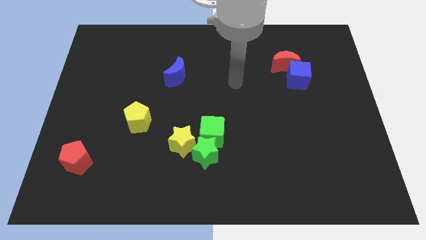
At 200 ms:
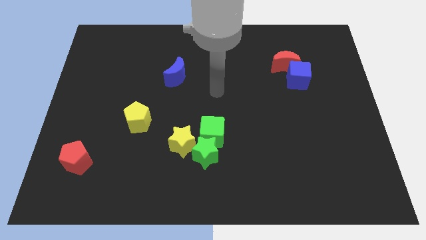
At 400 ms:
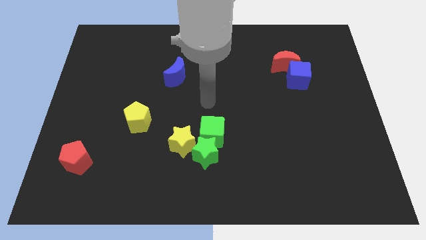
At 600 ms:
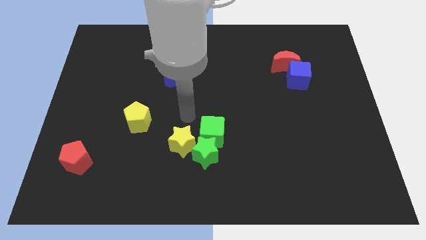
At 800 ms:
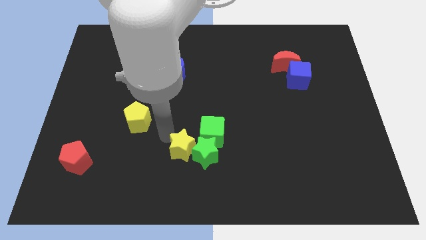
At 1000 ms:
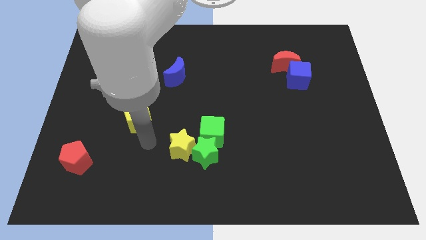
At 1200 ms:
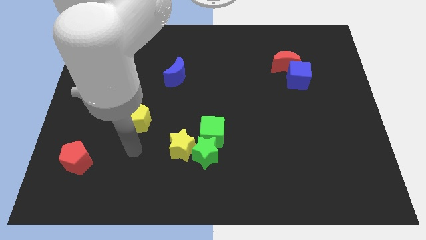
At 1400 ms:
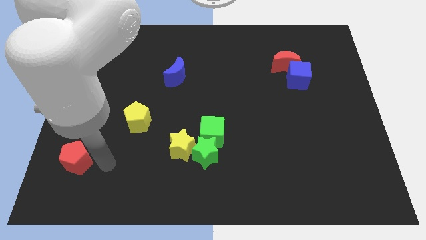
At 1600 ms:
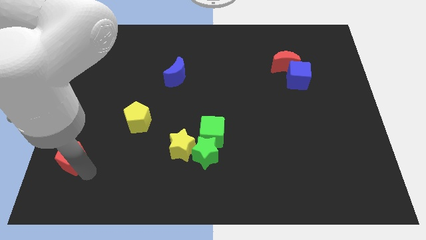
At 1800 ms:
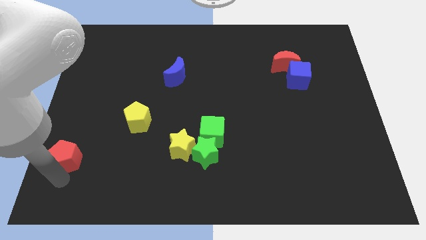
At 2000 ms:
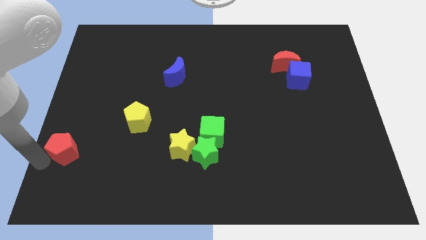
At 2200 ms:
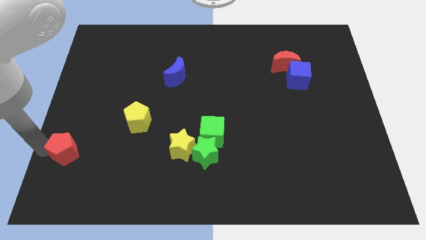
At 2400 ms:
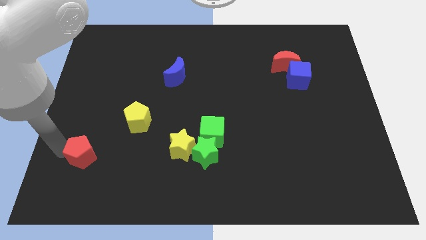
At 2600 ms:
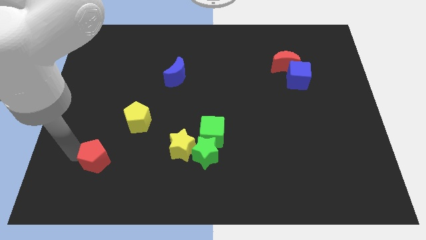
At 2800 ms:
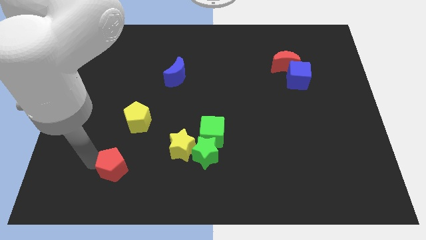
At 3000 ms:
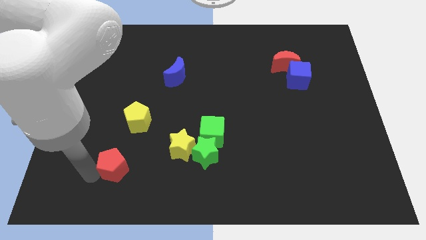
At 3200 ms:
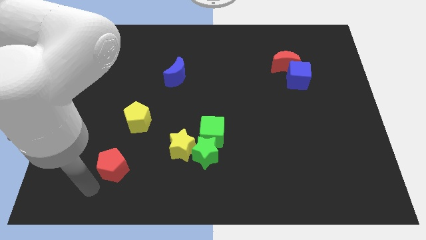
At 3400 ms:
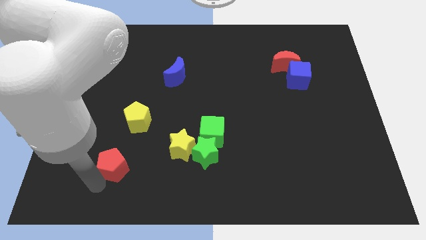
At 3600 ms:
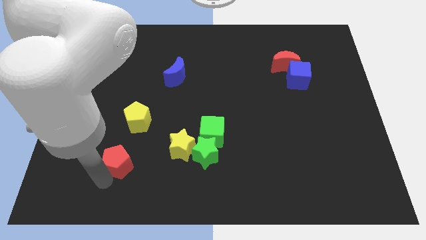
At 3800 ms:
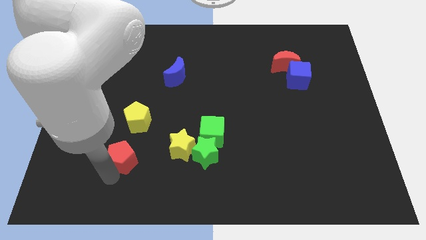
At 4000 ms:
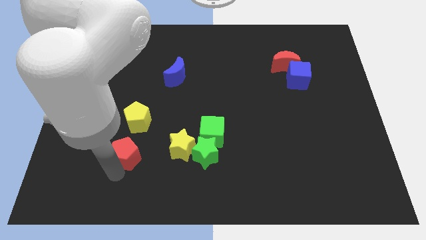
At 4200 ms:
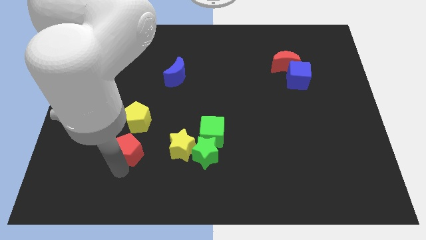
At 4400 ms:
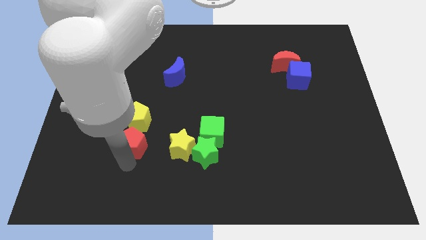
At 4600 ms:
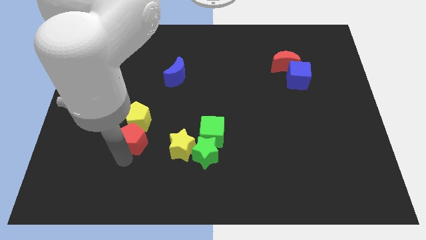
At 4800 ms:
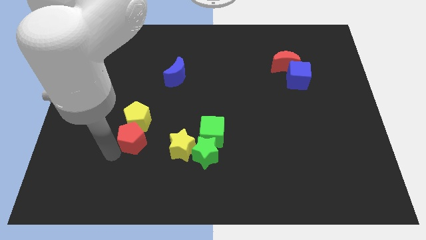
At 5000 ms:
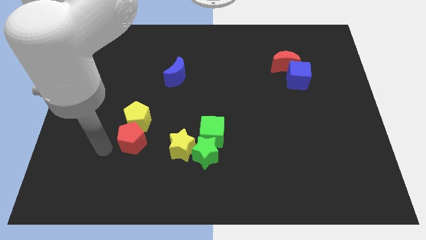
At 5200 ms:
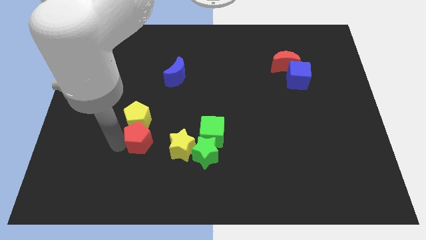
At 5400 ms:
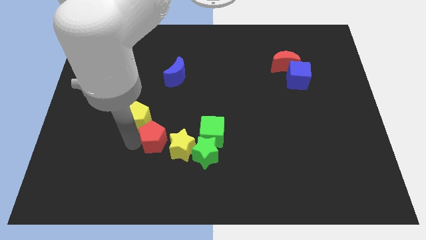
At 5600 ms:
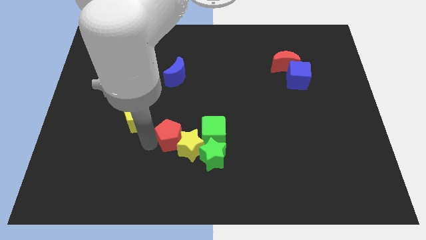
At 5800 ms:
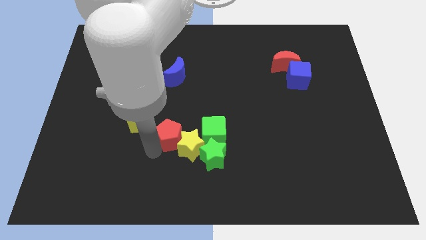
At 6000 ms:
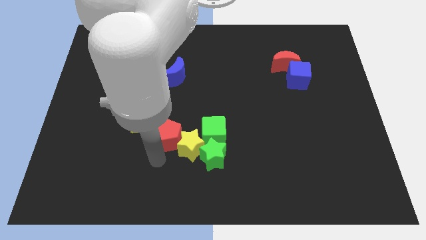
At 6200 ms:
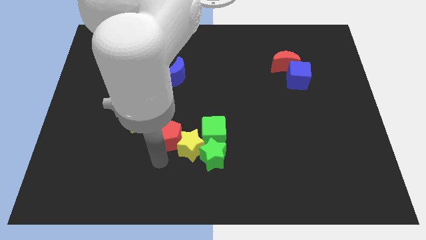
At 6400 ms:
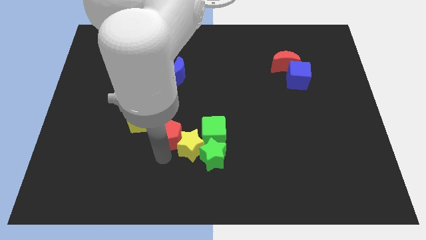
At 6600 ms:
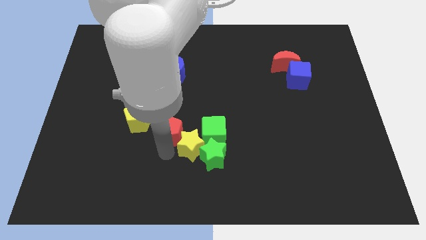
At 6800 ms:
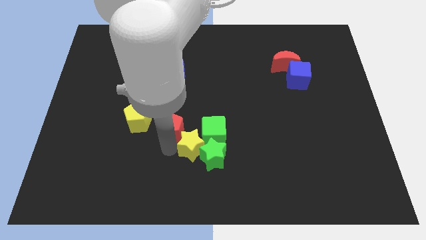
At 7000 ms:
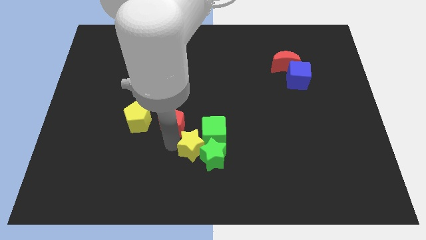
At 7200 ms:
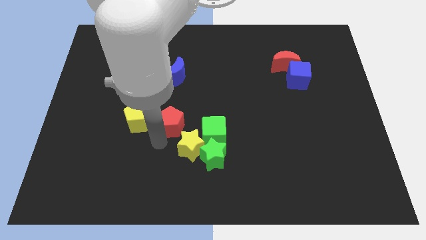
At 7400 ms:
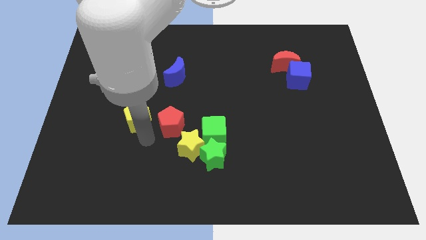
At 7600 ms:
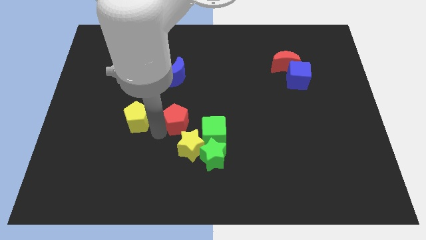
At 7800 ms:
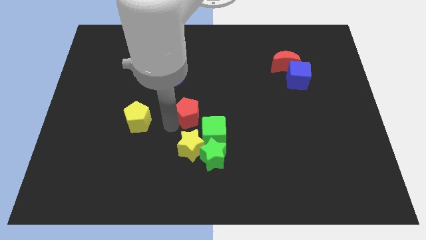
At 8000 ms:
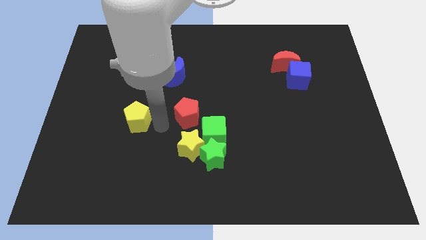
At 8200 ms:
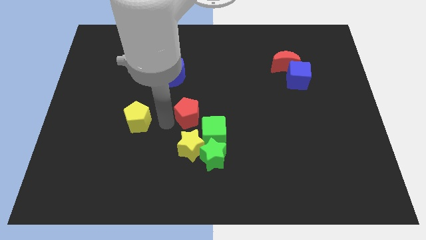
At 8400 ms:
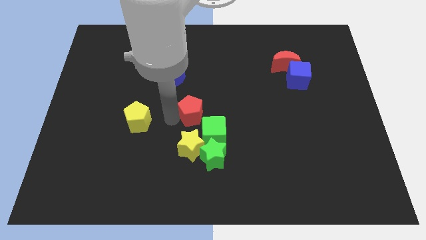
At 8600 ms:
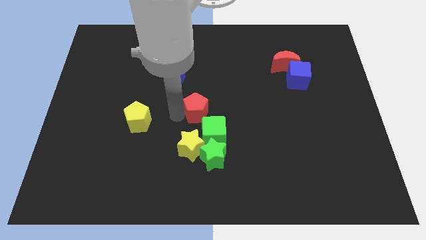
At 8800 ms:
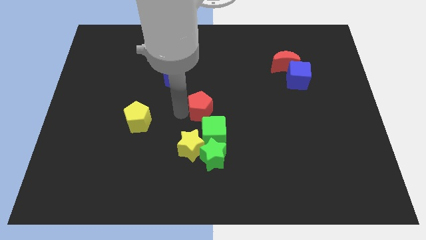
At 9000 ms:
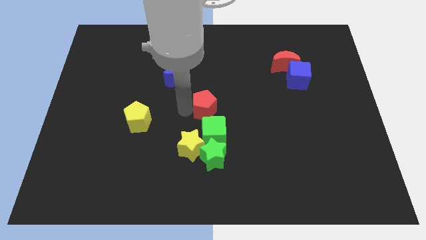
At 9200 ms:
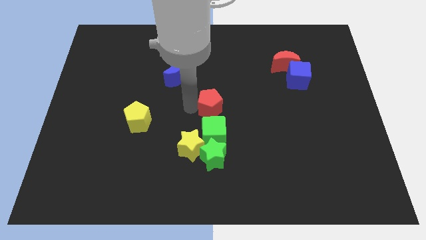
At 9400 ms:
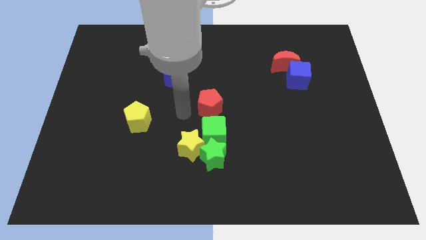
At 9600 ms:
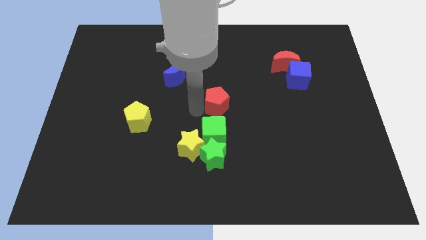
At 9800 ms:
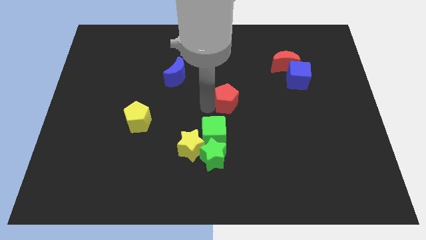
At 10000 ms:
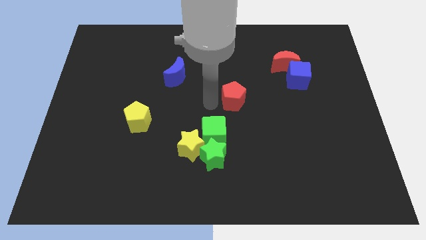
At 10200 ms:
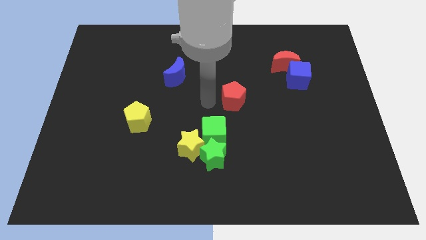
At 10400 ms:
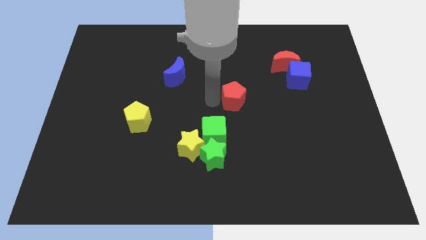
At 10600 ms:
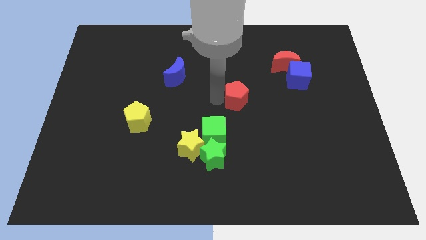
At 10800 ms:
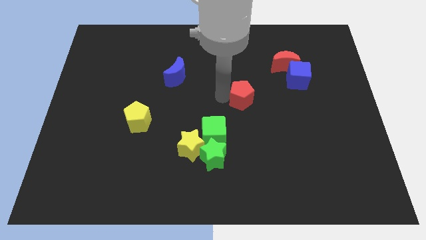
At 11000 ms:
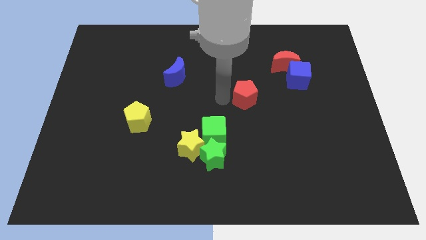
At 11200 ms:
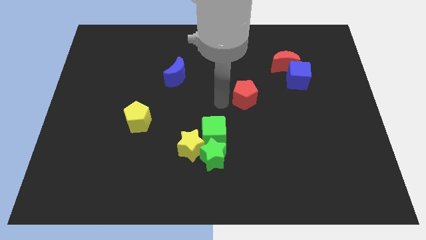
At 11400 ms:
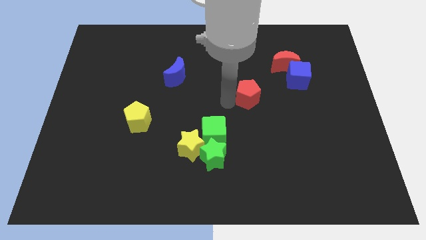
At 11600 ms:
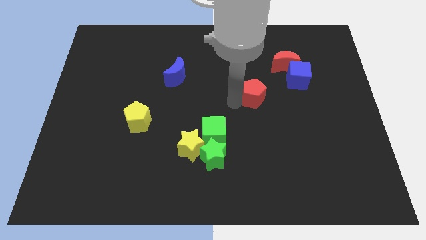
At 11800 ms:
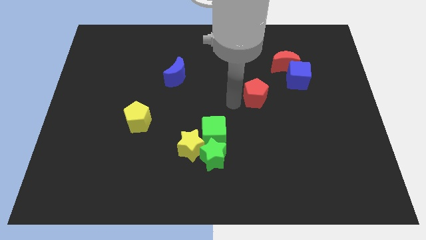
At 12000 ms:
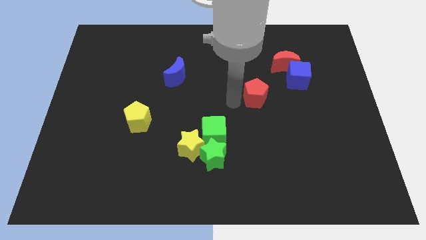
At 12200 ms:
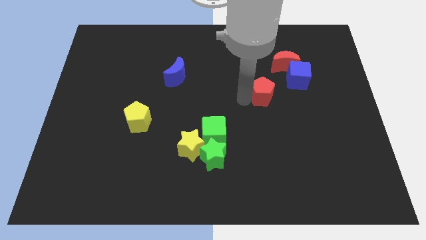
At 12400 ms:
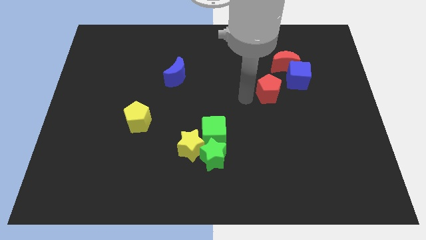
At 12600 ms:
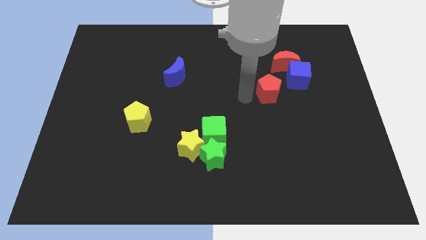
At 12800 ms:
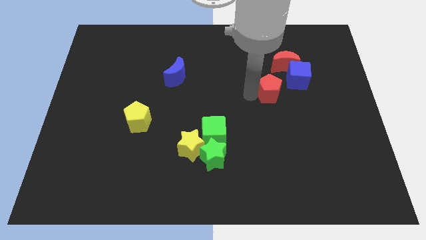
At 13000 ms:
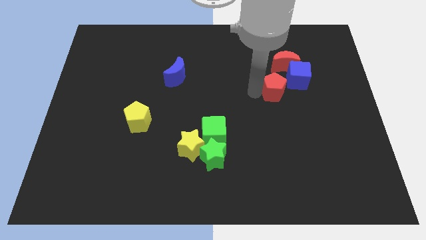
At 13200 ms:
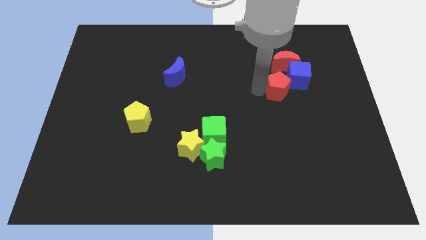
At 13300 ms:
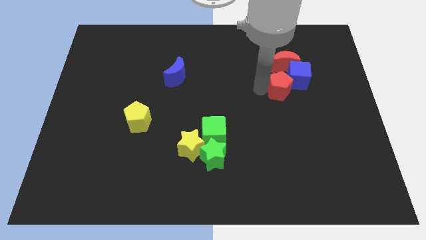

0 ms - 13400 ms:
slide the red pentagon towards the blue cube

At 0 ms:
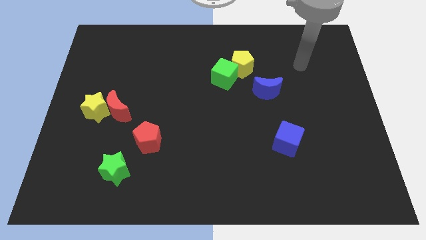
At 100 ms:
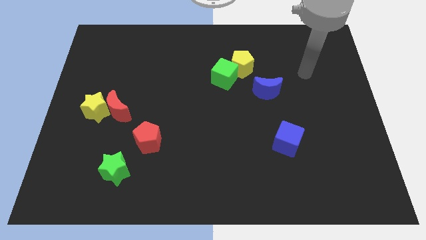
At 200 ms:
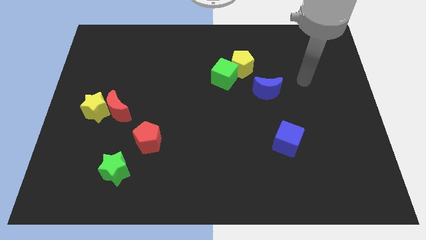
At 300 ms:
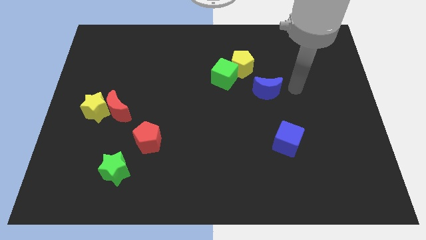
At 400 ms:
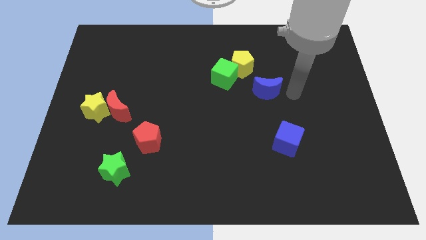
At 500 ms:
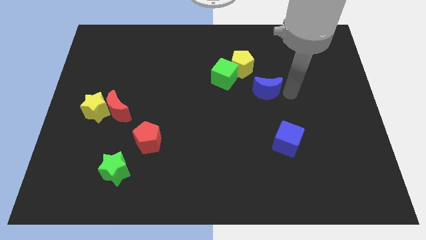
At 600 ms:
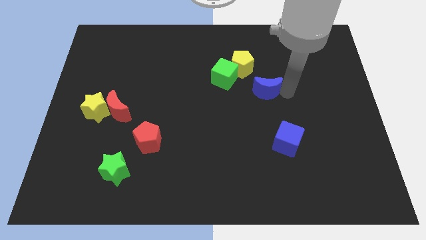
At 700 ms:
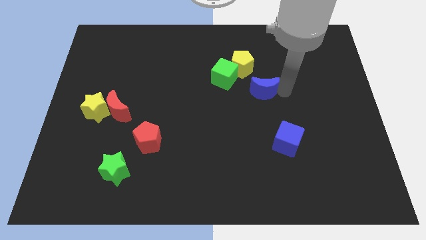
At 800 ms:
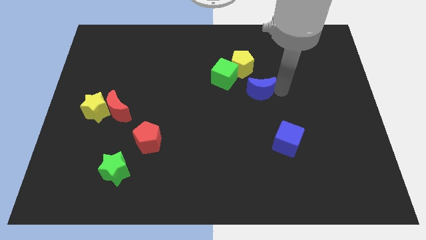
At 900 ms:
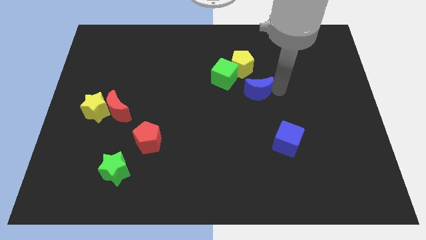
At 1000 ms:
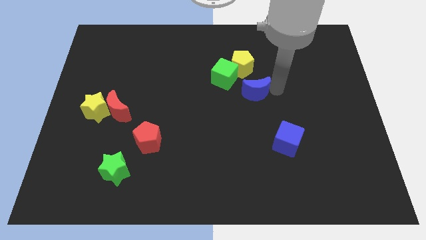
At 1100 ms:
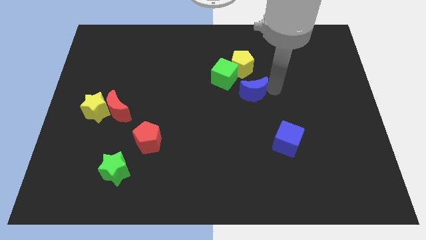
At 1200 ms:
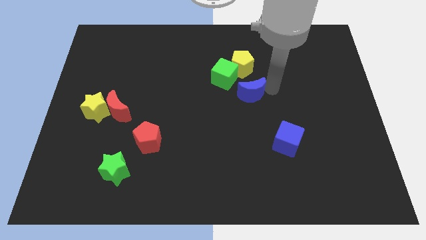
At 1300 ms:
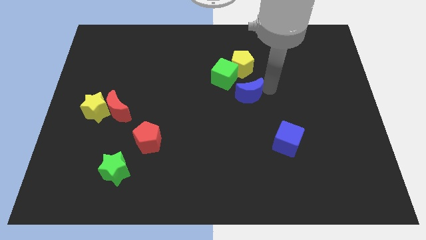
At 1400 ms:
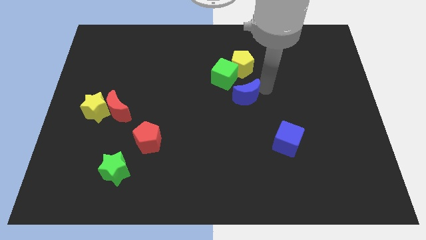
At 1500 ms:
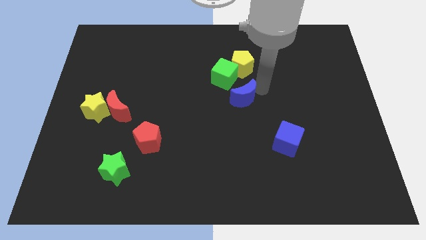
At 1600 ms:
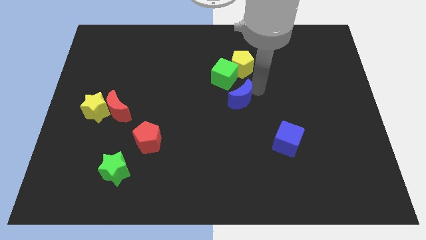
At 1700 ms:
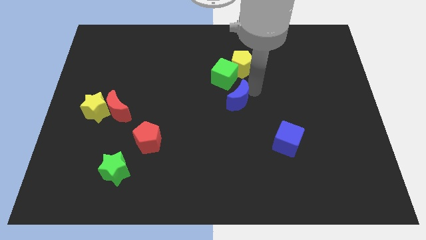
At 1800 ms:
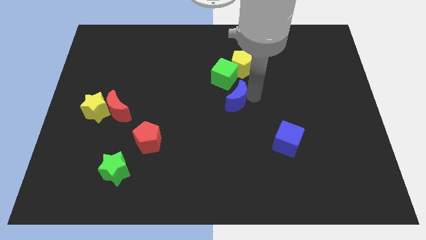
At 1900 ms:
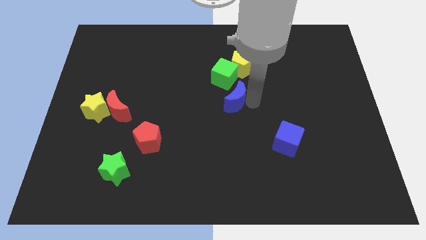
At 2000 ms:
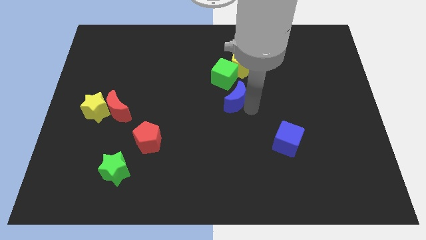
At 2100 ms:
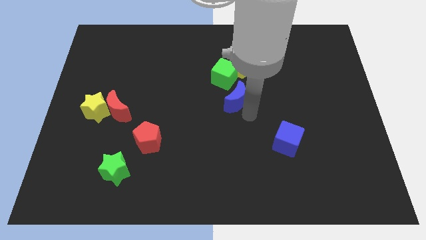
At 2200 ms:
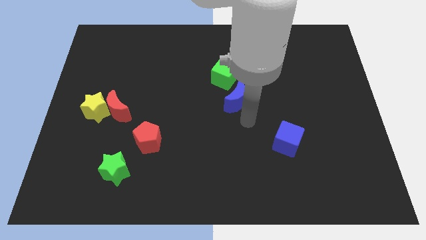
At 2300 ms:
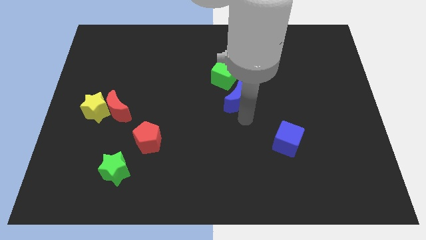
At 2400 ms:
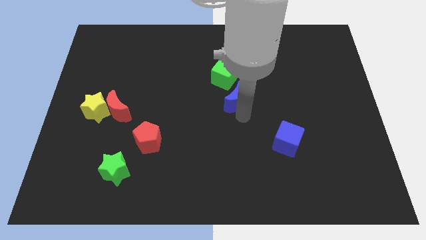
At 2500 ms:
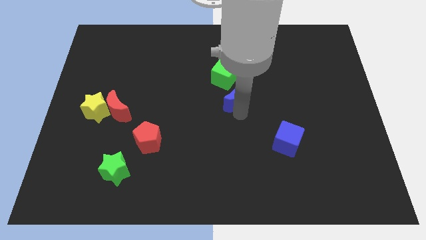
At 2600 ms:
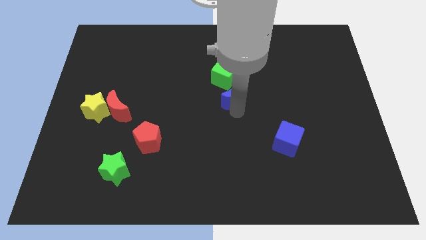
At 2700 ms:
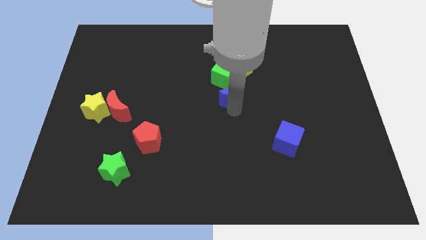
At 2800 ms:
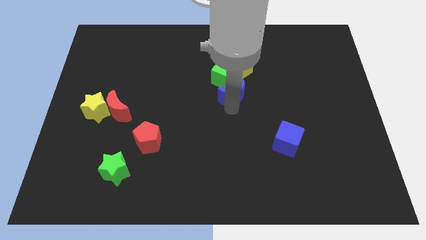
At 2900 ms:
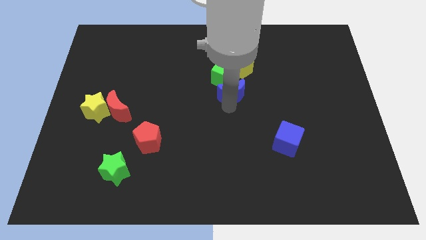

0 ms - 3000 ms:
slide the blue moon towards the green cube
